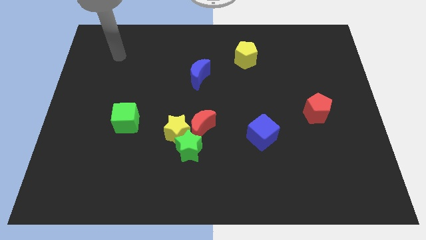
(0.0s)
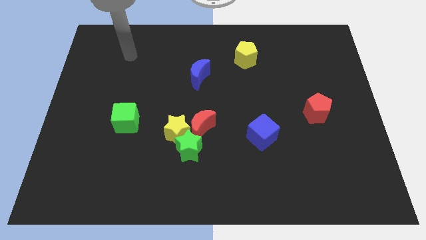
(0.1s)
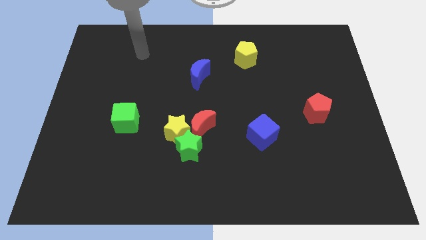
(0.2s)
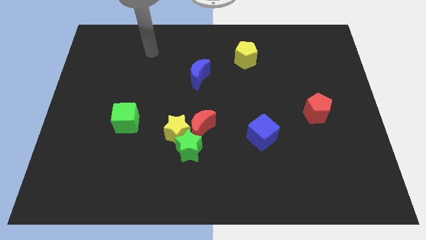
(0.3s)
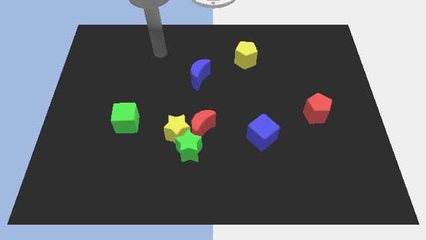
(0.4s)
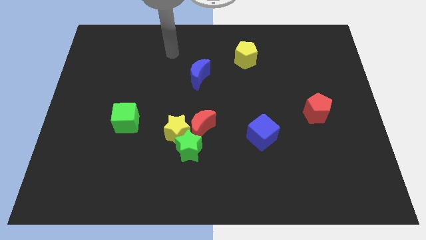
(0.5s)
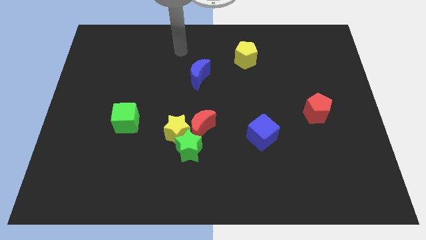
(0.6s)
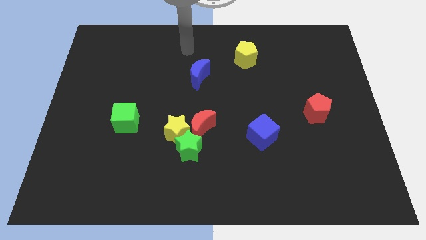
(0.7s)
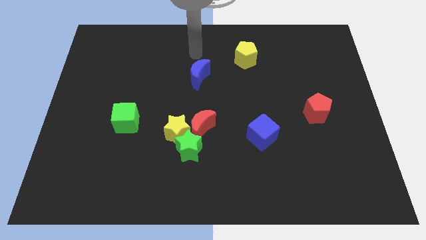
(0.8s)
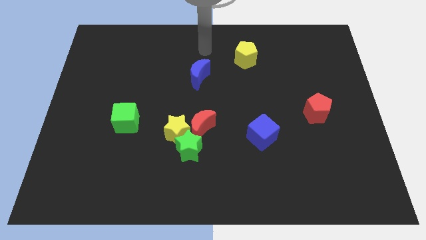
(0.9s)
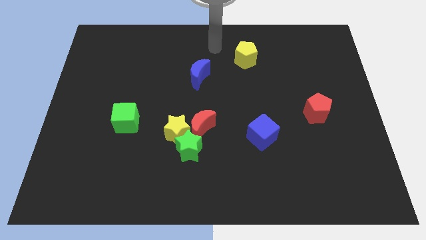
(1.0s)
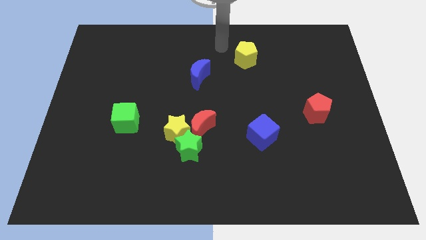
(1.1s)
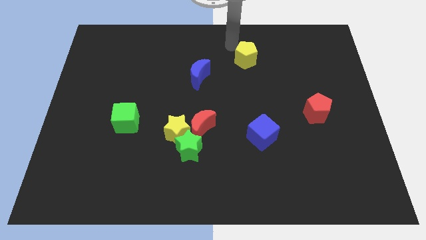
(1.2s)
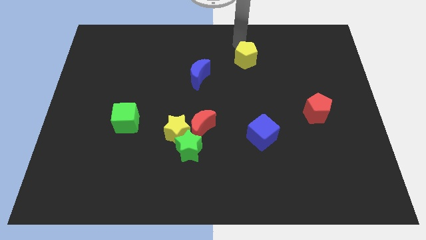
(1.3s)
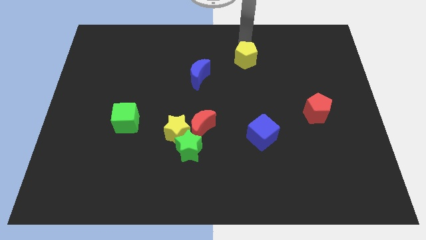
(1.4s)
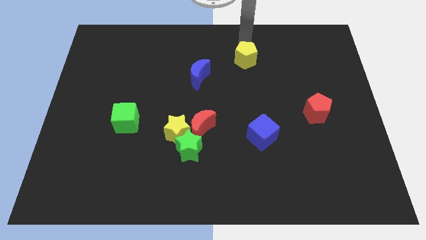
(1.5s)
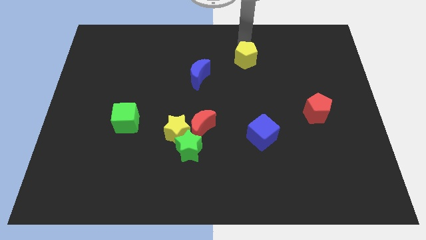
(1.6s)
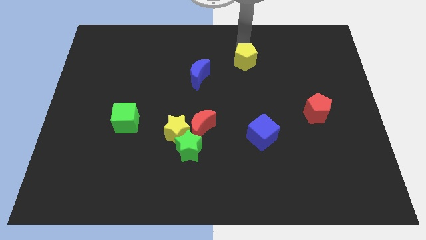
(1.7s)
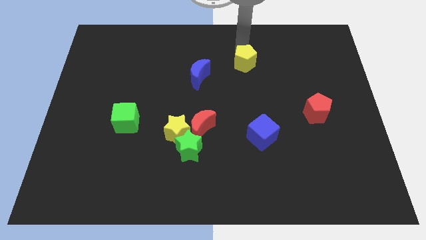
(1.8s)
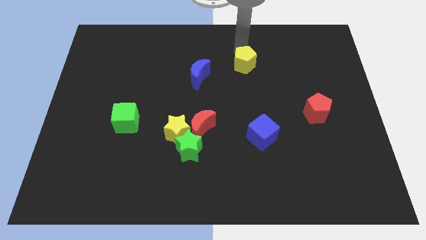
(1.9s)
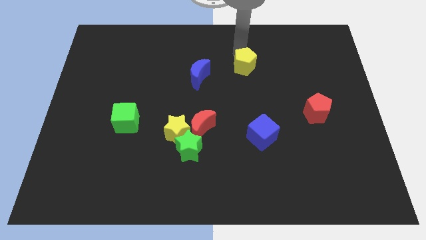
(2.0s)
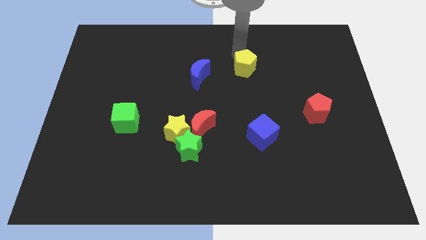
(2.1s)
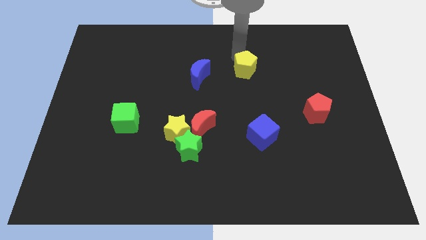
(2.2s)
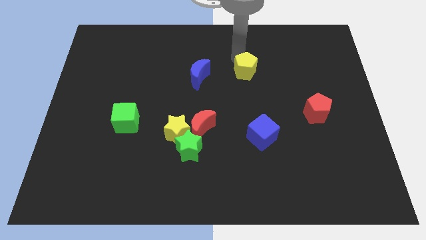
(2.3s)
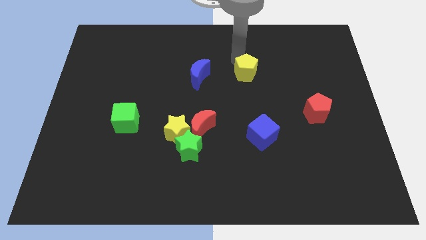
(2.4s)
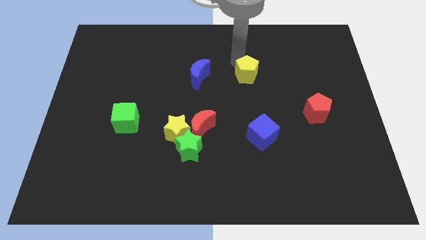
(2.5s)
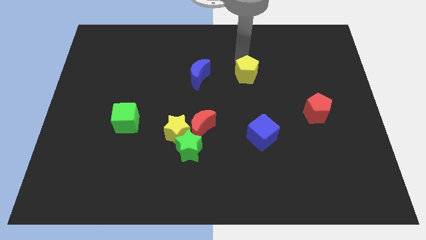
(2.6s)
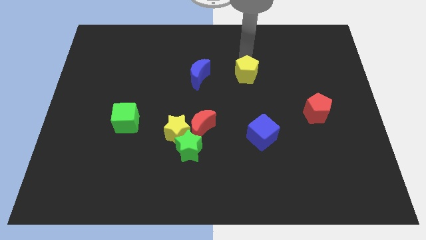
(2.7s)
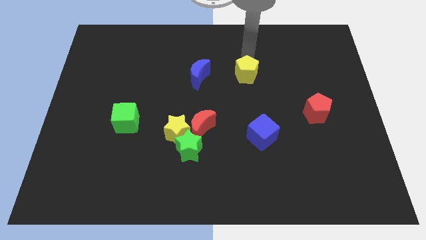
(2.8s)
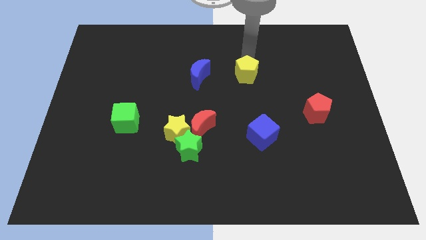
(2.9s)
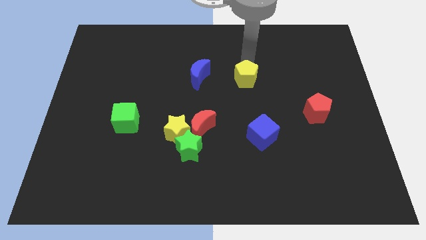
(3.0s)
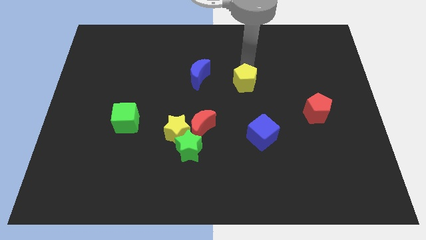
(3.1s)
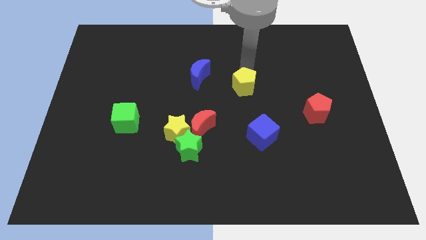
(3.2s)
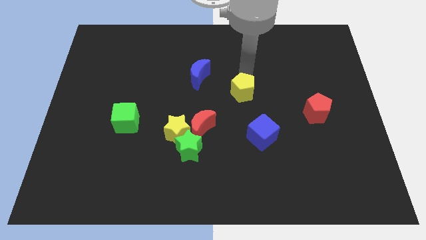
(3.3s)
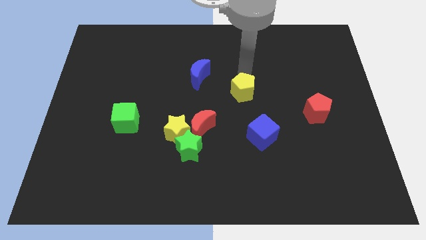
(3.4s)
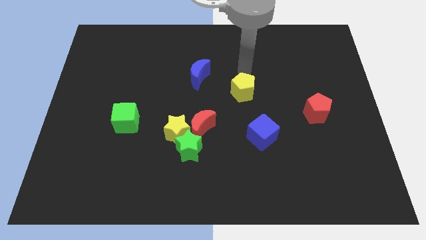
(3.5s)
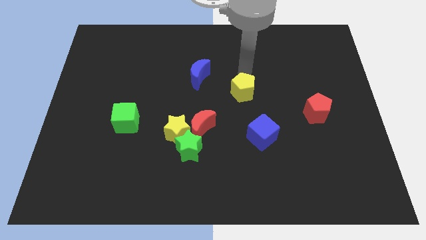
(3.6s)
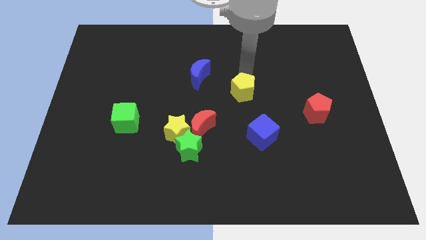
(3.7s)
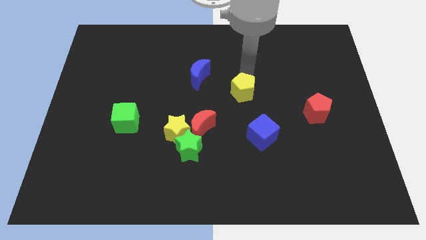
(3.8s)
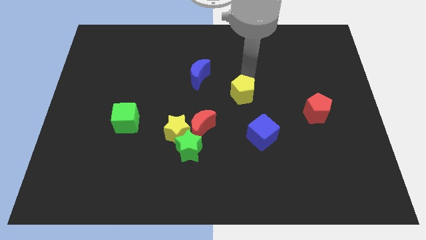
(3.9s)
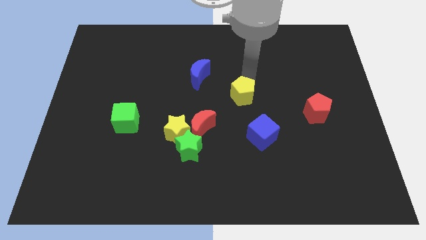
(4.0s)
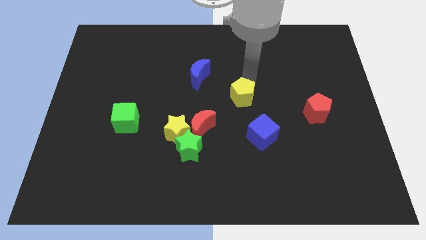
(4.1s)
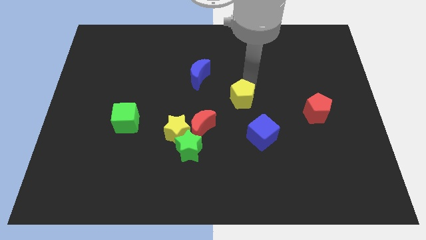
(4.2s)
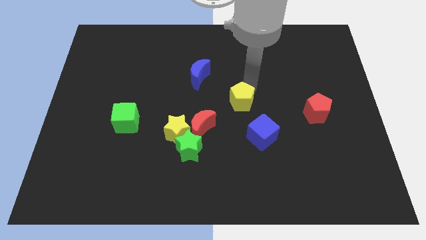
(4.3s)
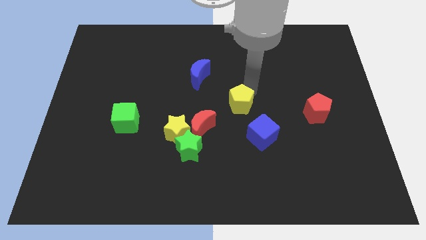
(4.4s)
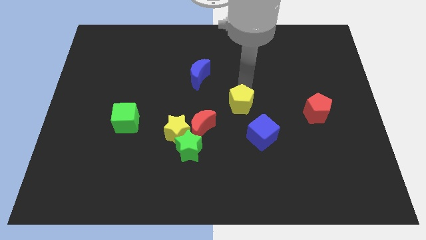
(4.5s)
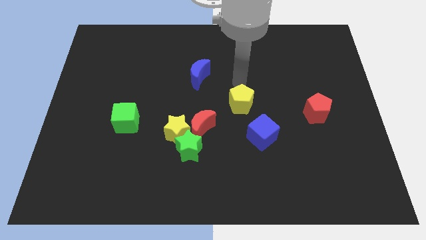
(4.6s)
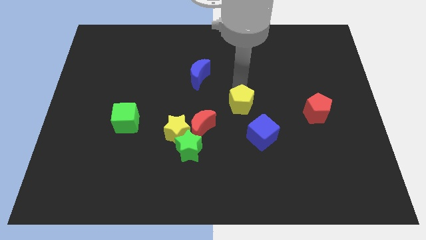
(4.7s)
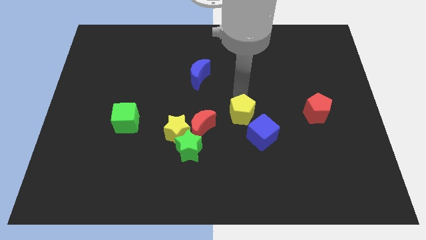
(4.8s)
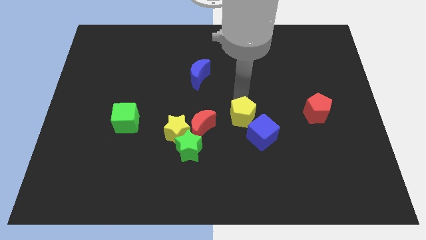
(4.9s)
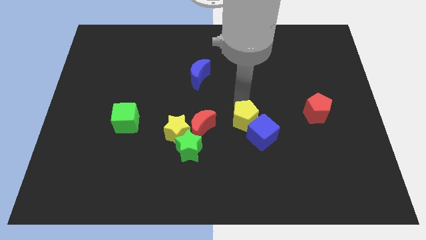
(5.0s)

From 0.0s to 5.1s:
slide the yellow pentagon down

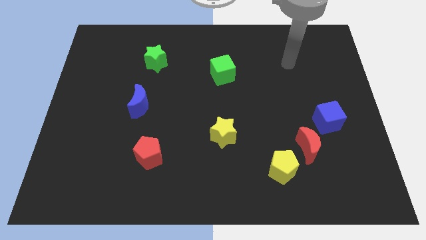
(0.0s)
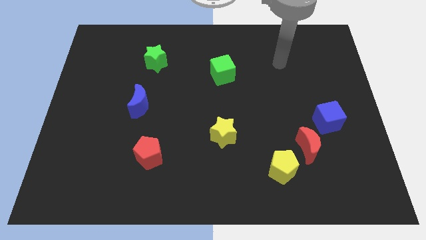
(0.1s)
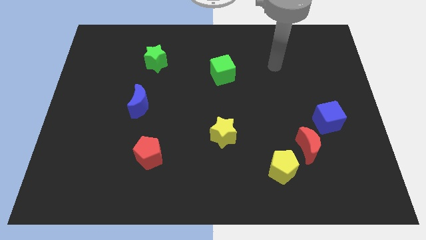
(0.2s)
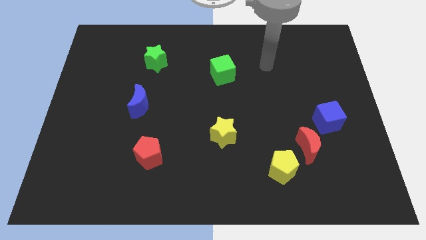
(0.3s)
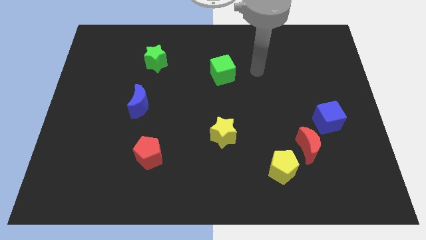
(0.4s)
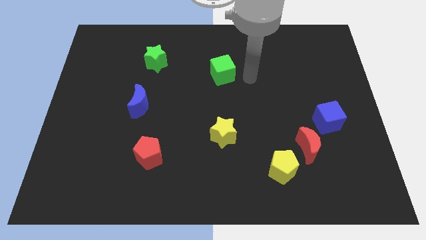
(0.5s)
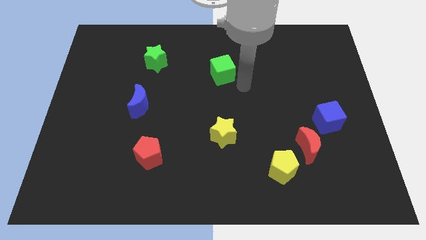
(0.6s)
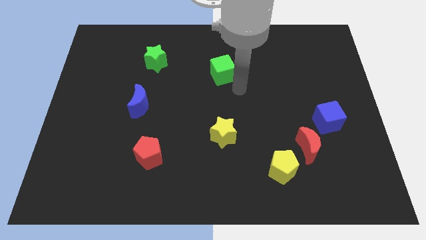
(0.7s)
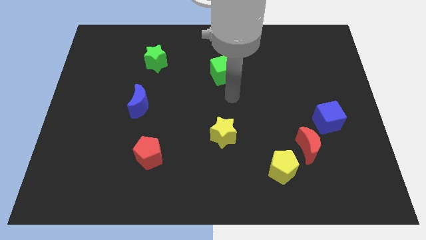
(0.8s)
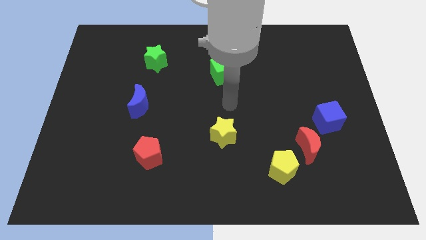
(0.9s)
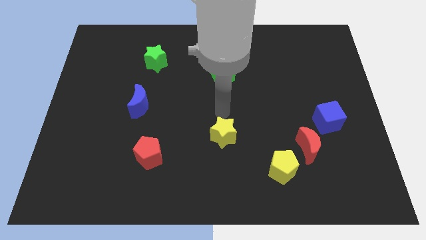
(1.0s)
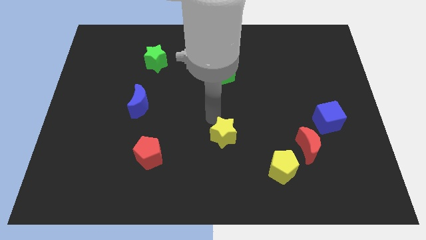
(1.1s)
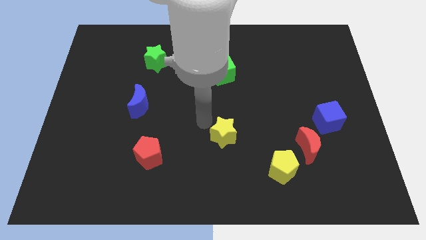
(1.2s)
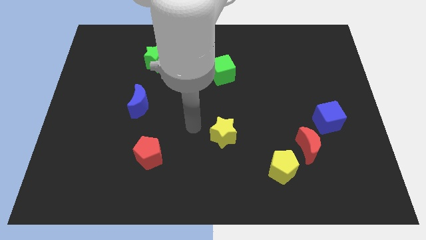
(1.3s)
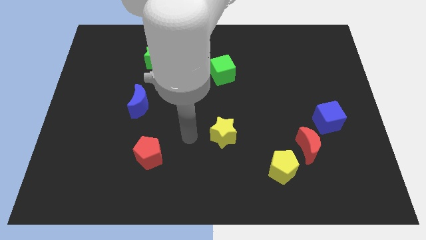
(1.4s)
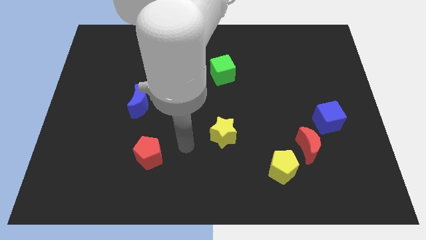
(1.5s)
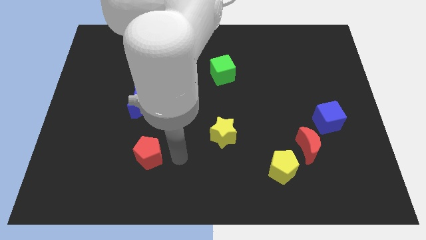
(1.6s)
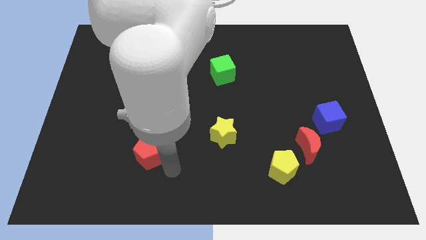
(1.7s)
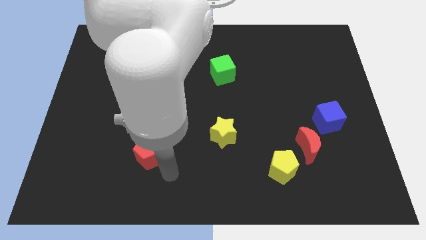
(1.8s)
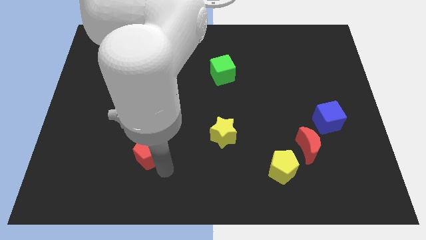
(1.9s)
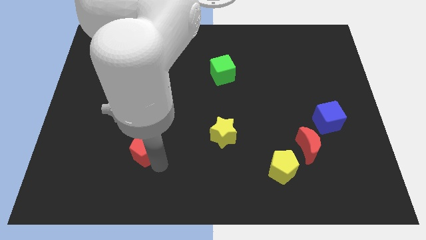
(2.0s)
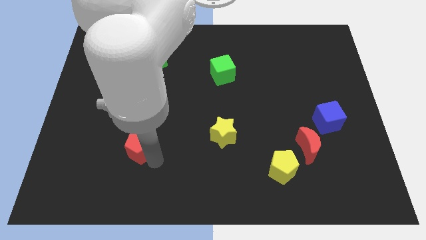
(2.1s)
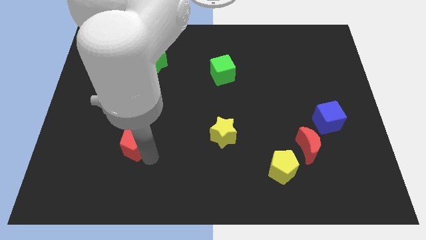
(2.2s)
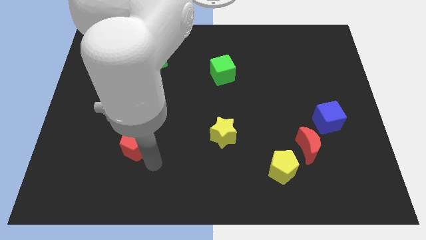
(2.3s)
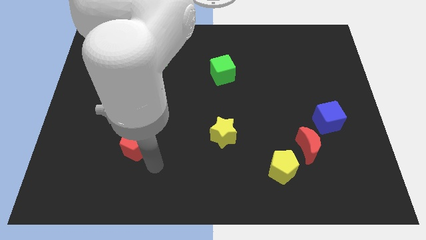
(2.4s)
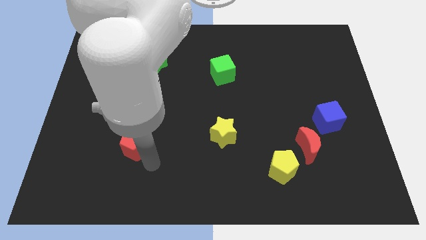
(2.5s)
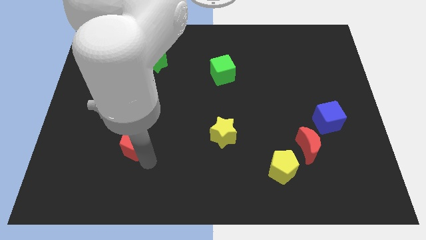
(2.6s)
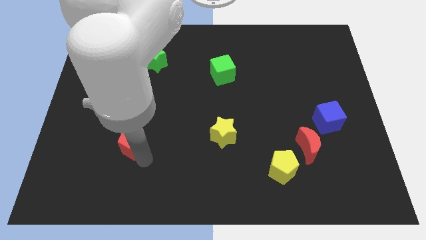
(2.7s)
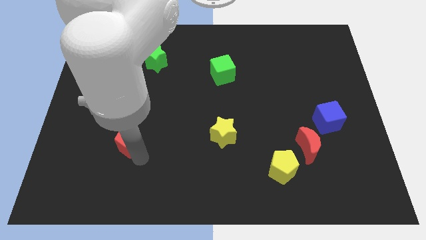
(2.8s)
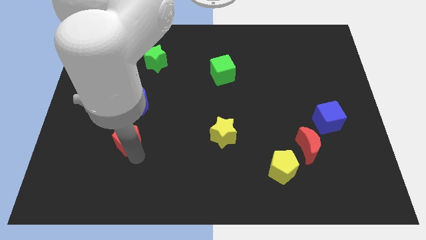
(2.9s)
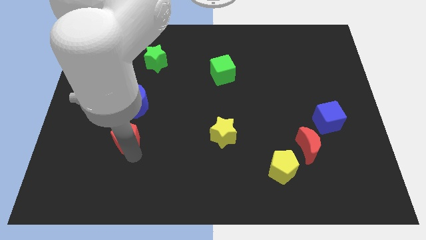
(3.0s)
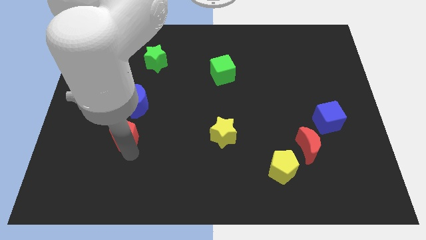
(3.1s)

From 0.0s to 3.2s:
slide the red pentagon up and then to the left a bit
